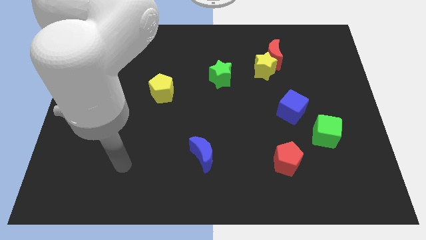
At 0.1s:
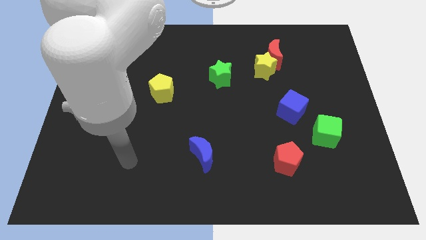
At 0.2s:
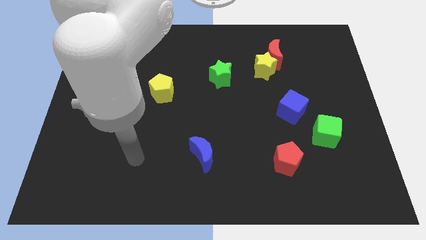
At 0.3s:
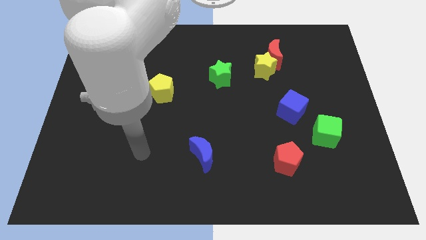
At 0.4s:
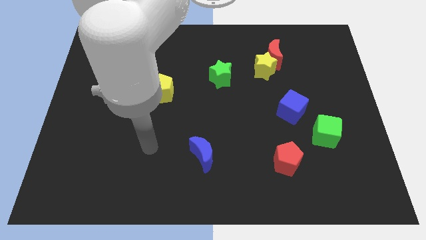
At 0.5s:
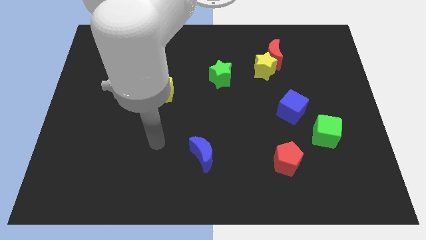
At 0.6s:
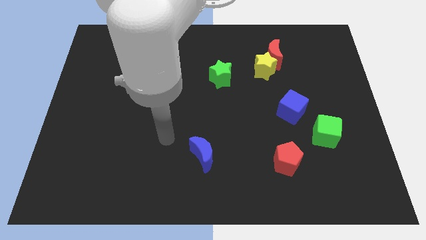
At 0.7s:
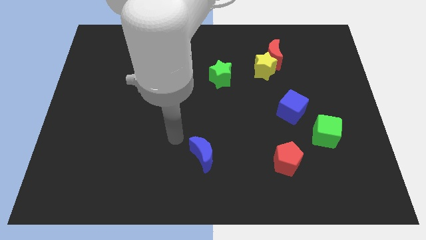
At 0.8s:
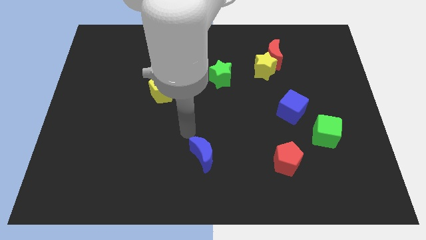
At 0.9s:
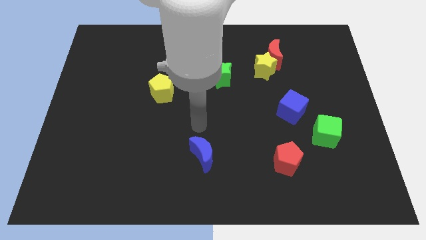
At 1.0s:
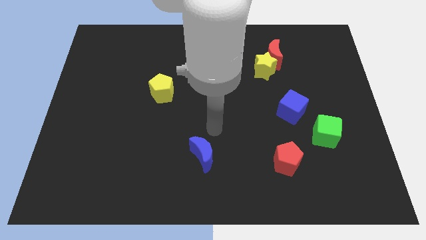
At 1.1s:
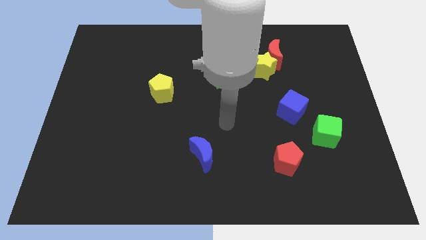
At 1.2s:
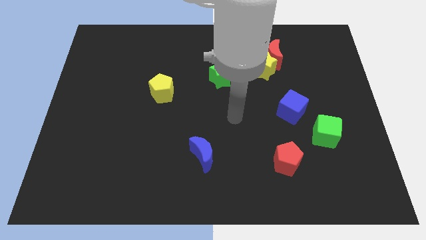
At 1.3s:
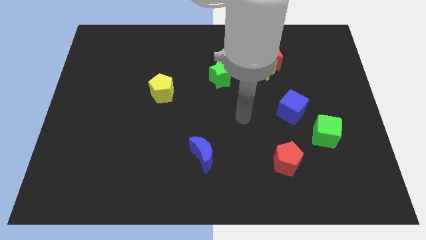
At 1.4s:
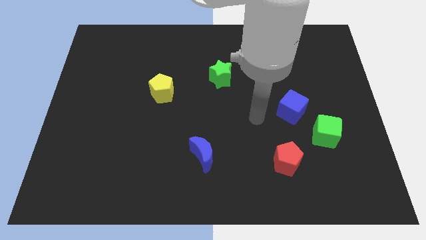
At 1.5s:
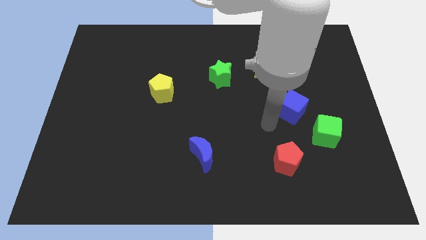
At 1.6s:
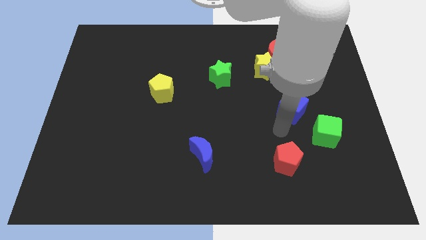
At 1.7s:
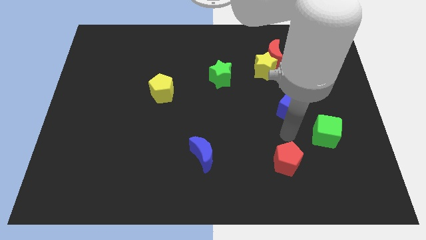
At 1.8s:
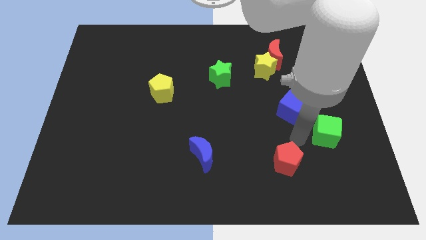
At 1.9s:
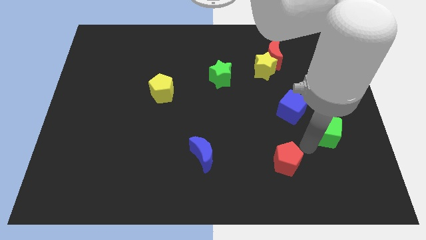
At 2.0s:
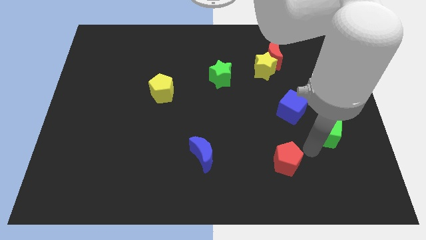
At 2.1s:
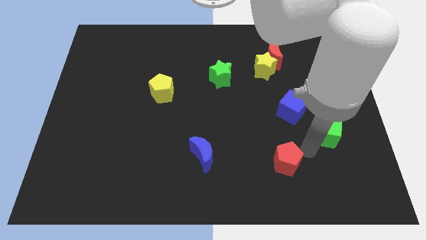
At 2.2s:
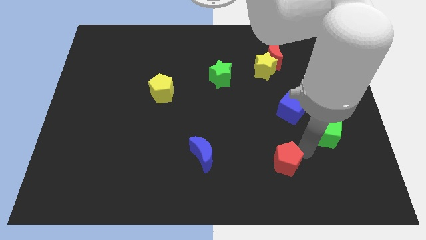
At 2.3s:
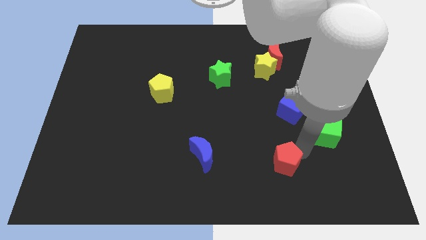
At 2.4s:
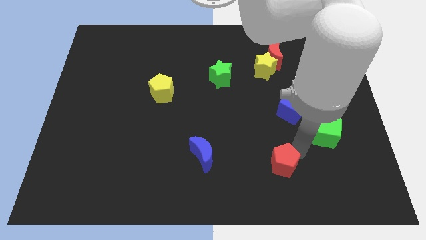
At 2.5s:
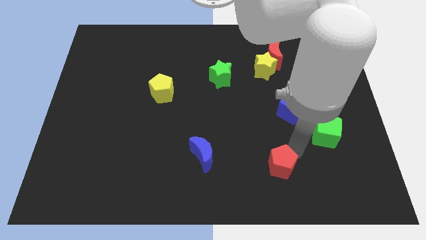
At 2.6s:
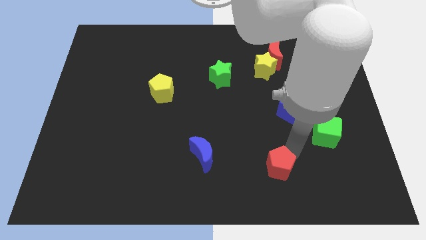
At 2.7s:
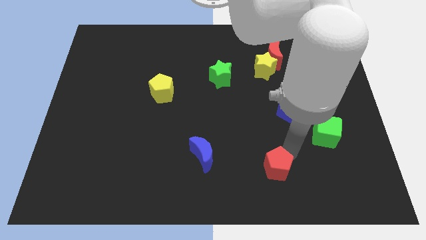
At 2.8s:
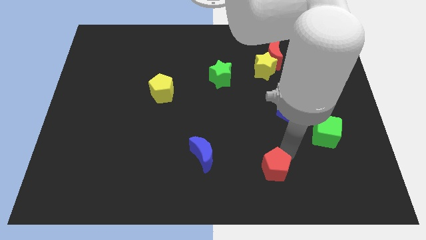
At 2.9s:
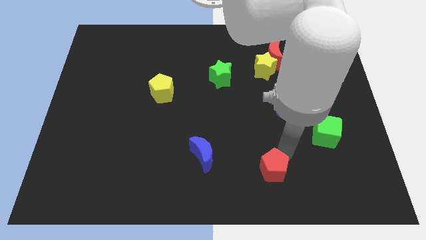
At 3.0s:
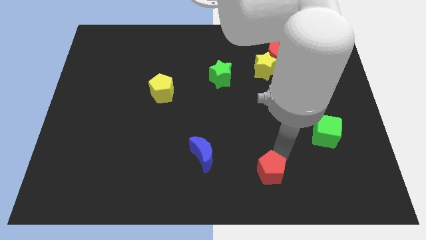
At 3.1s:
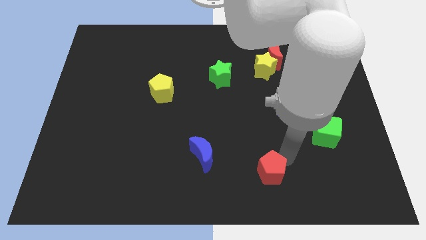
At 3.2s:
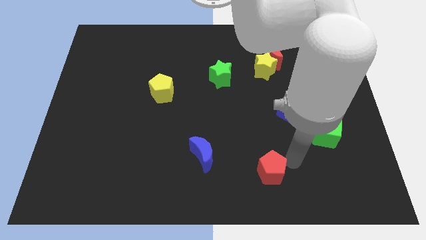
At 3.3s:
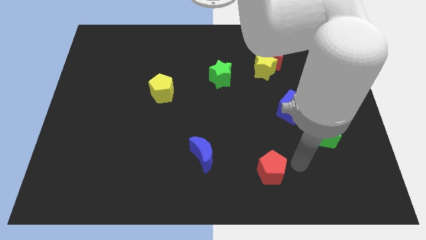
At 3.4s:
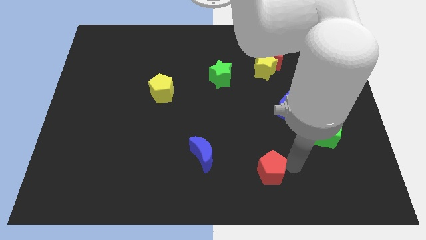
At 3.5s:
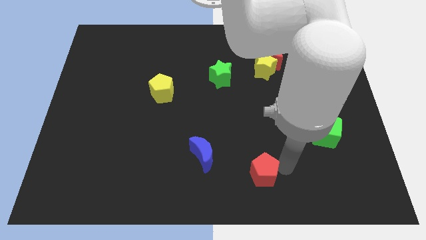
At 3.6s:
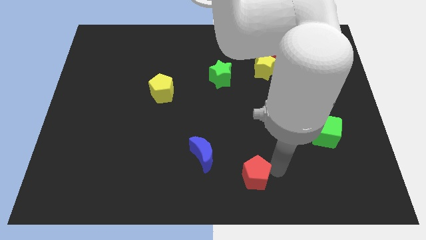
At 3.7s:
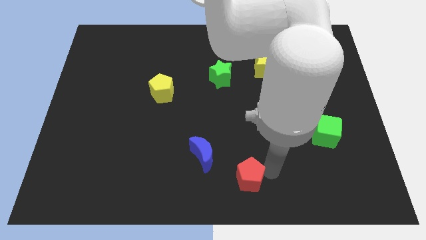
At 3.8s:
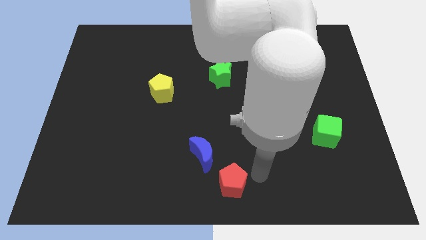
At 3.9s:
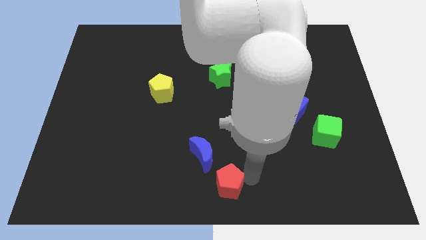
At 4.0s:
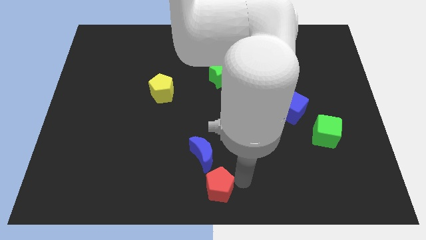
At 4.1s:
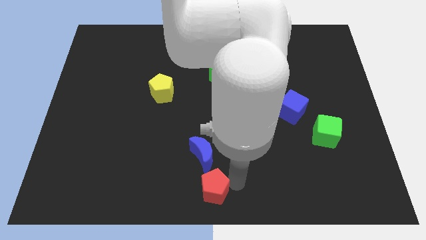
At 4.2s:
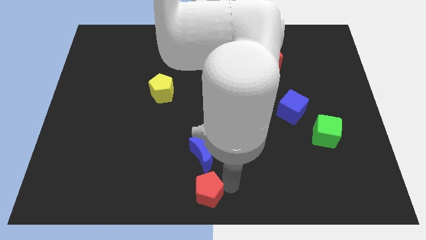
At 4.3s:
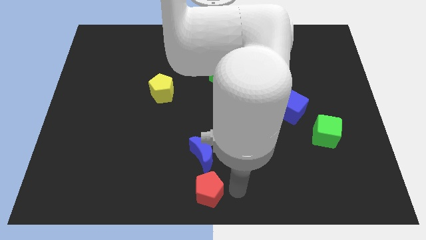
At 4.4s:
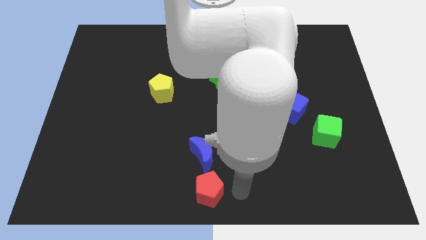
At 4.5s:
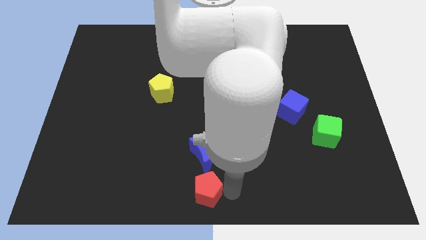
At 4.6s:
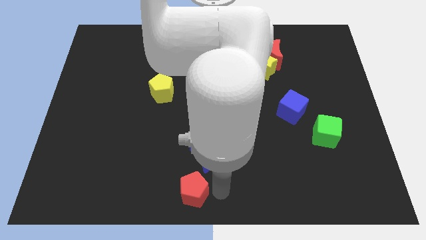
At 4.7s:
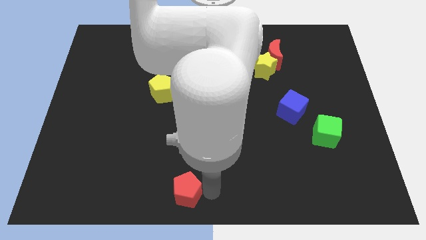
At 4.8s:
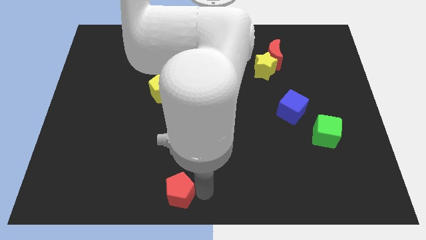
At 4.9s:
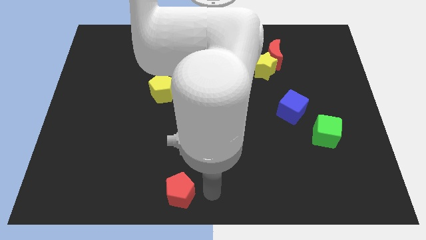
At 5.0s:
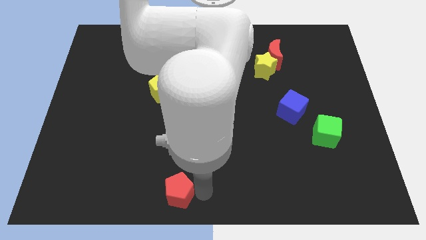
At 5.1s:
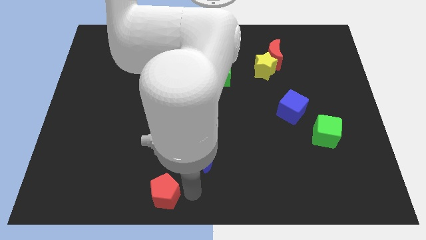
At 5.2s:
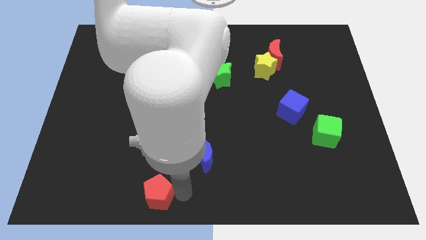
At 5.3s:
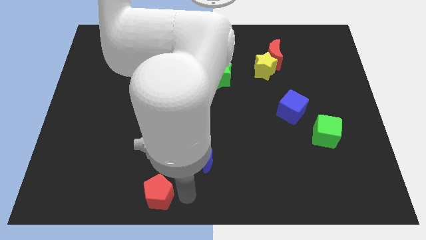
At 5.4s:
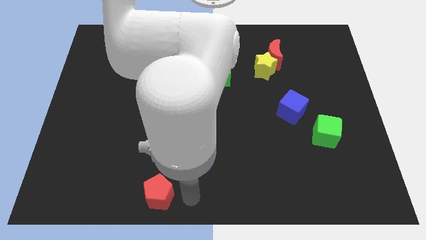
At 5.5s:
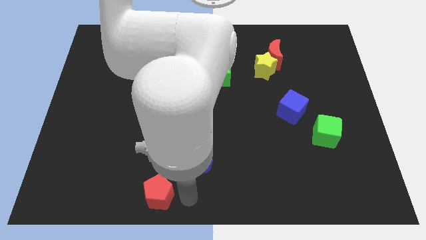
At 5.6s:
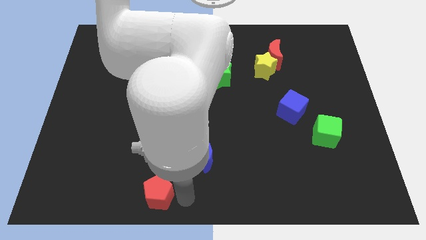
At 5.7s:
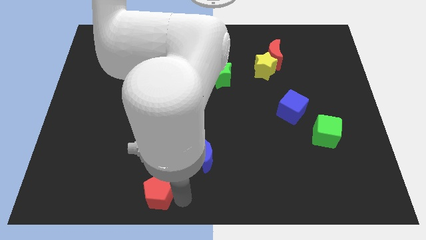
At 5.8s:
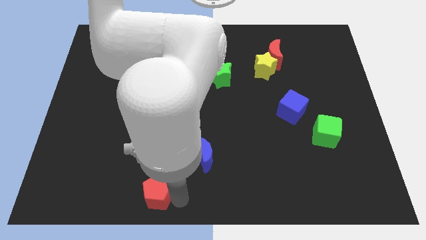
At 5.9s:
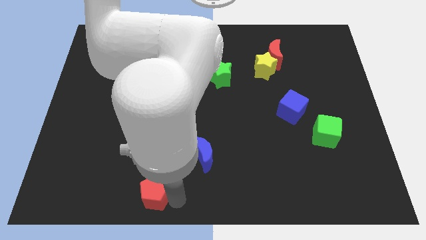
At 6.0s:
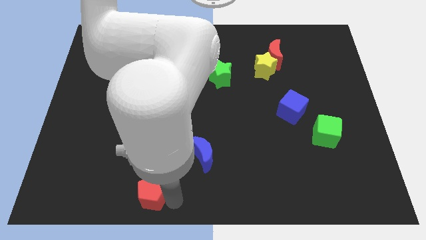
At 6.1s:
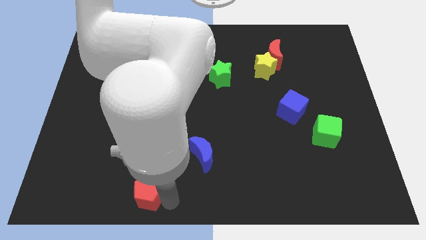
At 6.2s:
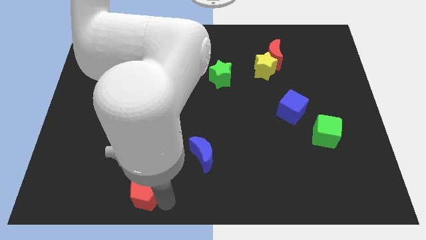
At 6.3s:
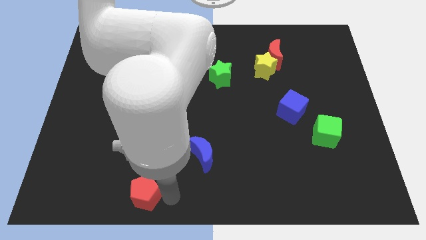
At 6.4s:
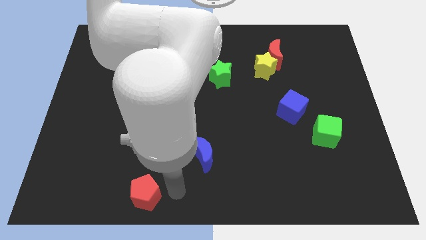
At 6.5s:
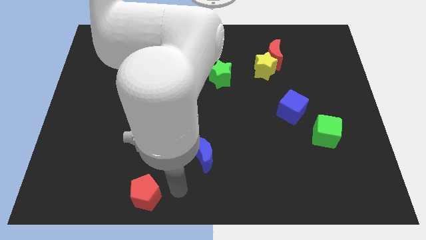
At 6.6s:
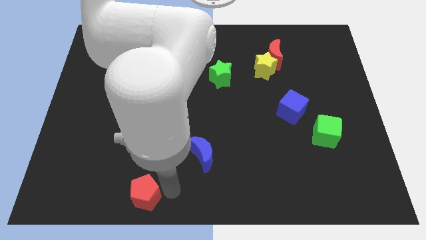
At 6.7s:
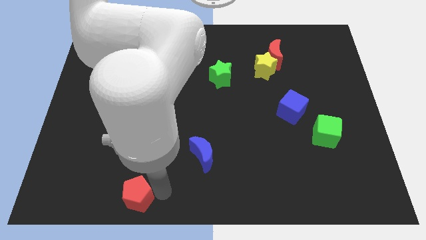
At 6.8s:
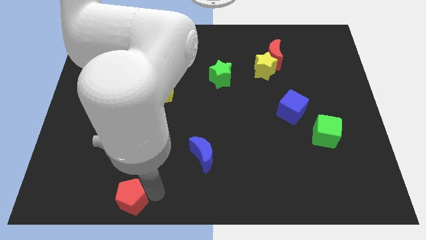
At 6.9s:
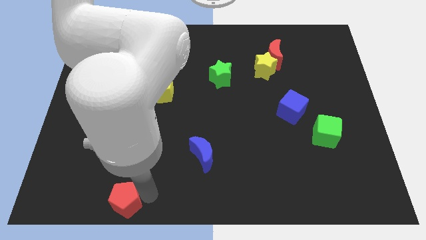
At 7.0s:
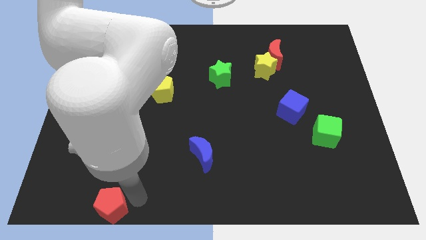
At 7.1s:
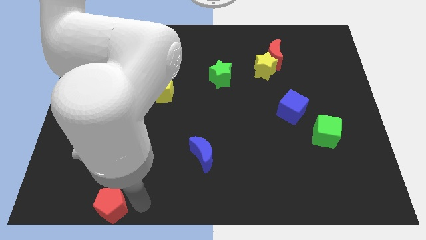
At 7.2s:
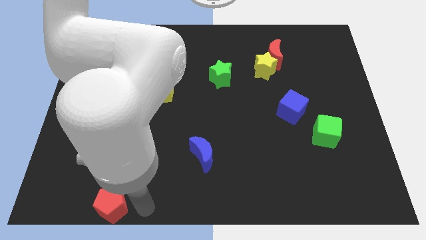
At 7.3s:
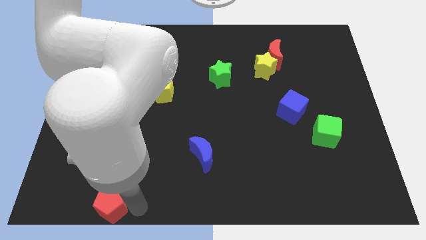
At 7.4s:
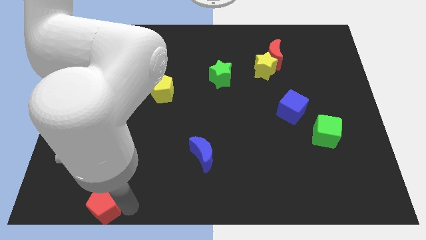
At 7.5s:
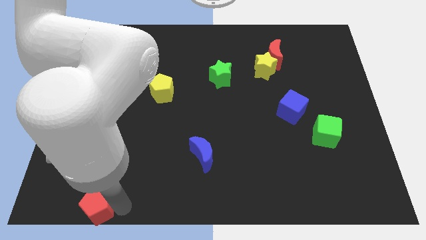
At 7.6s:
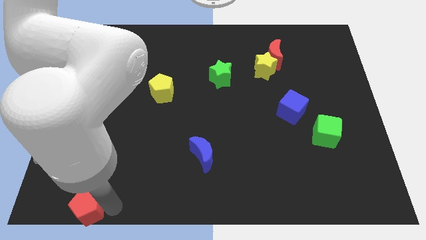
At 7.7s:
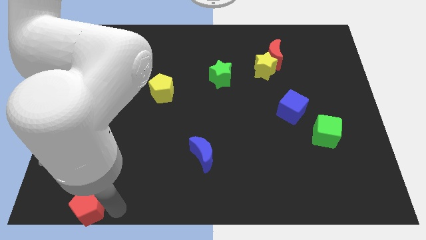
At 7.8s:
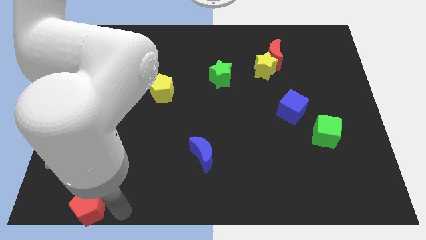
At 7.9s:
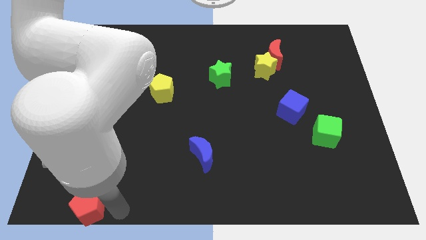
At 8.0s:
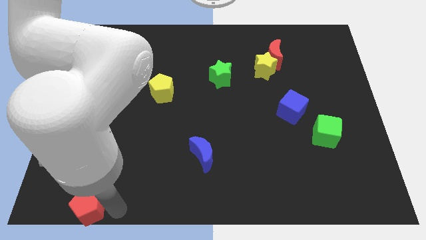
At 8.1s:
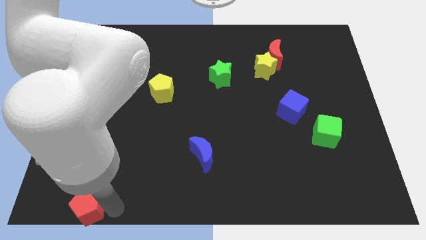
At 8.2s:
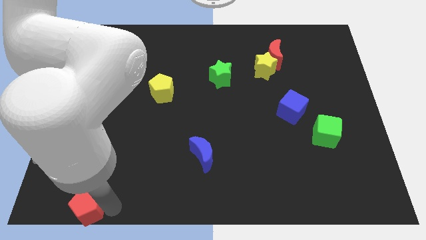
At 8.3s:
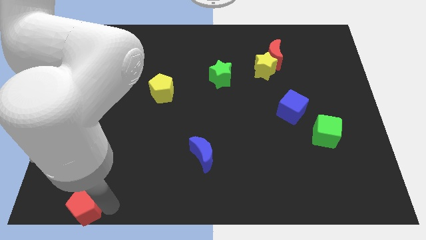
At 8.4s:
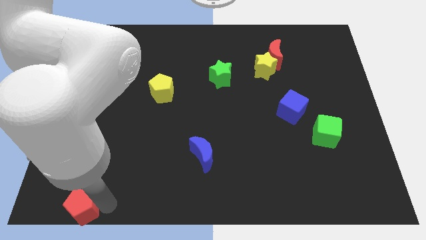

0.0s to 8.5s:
slide the red pentagon to the bottom left of the board
